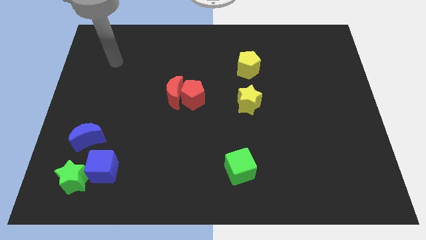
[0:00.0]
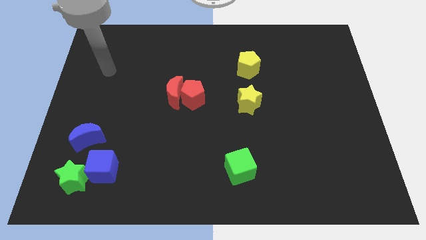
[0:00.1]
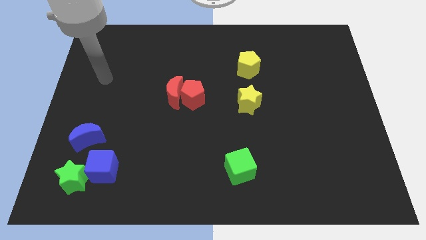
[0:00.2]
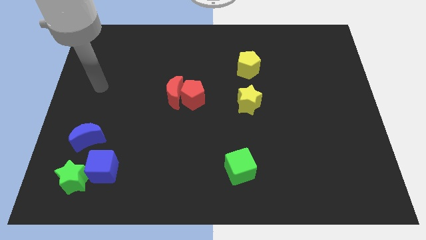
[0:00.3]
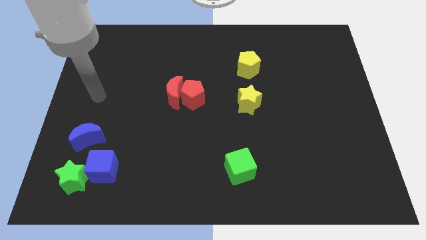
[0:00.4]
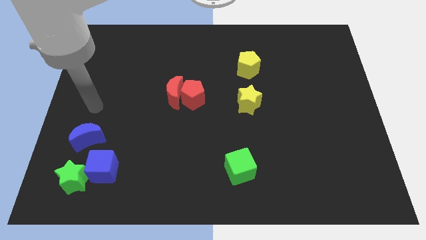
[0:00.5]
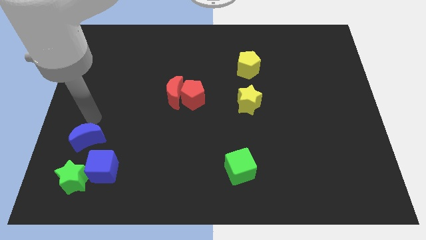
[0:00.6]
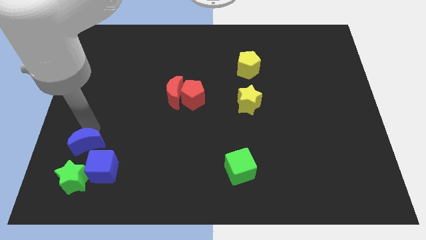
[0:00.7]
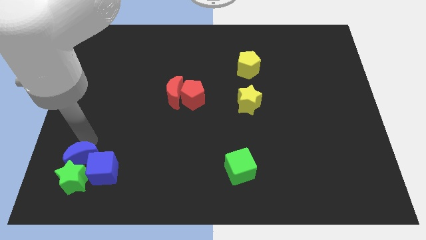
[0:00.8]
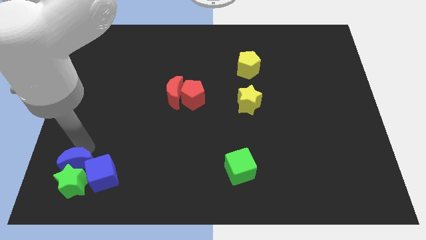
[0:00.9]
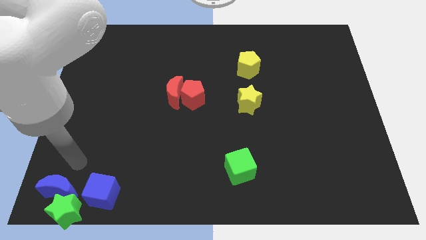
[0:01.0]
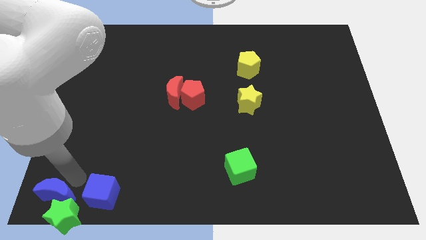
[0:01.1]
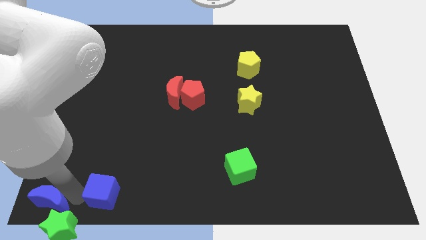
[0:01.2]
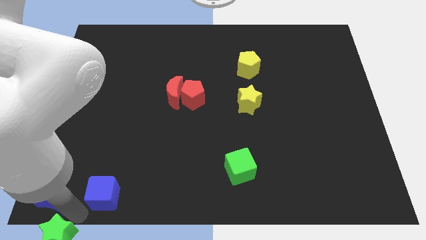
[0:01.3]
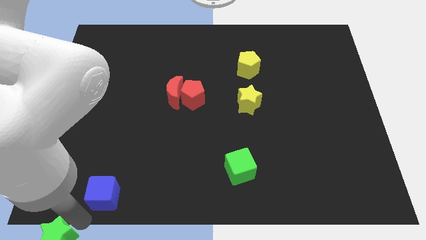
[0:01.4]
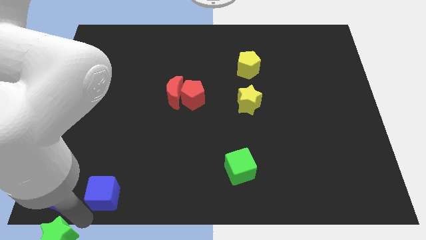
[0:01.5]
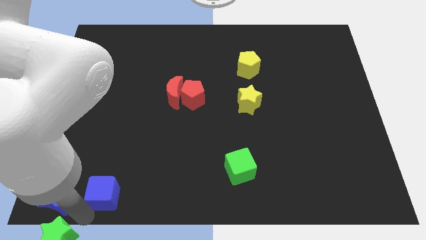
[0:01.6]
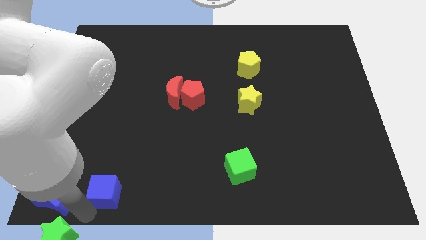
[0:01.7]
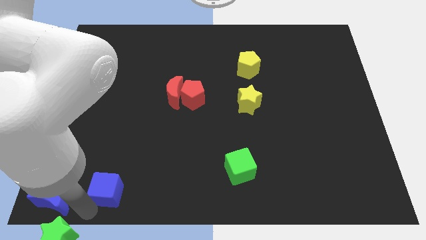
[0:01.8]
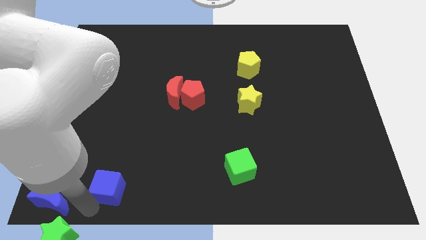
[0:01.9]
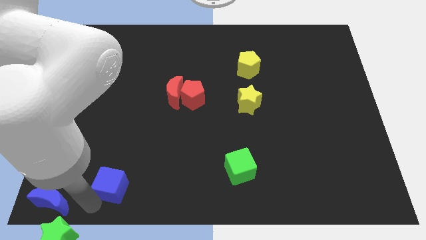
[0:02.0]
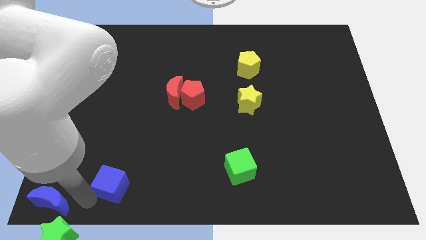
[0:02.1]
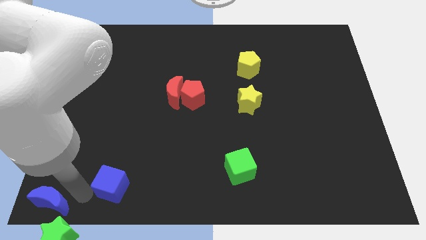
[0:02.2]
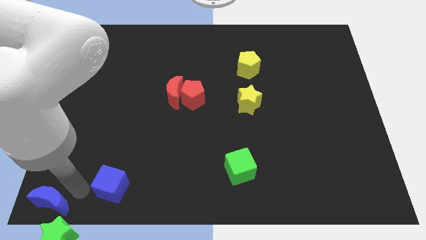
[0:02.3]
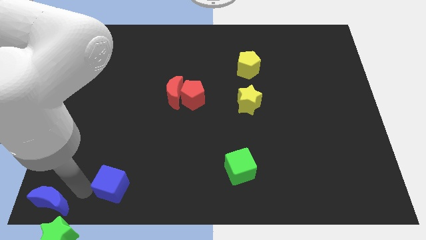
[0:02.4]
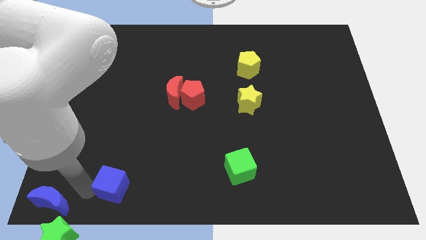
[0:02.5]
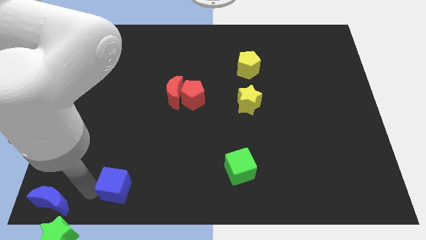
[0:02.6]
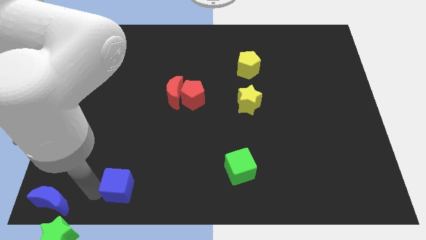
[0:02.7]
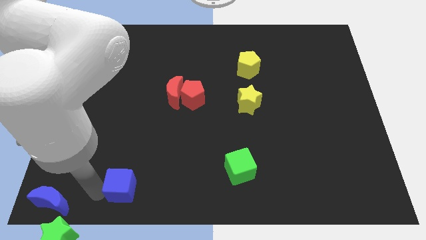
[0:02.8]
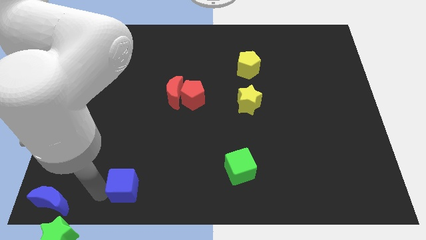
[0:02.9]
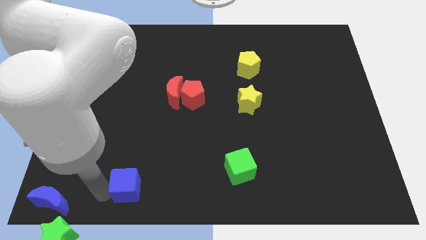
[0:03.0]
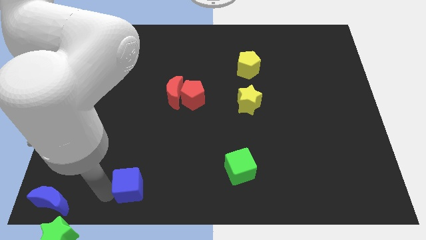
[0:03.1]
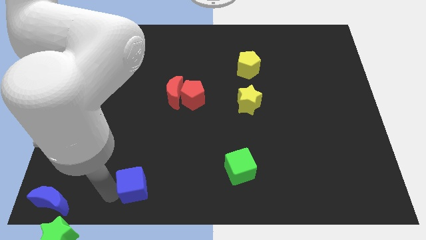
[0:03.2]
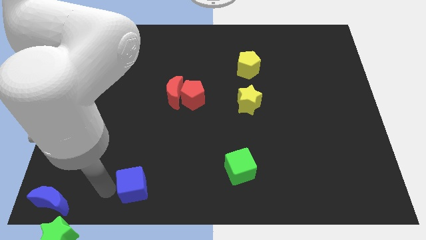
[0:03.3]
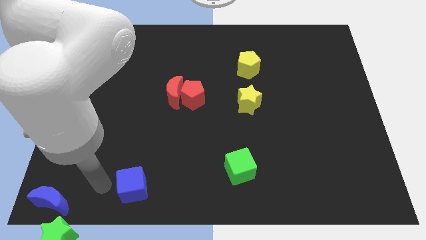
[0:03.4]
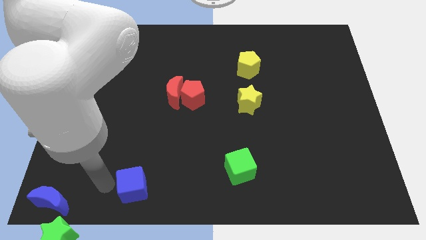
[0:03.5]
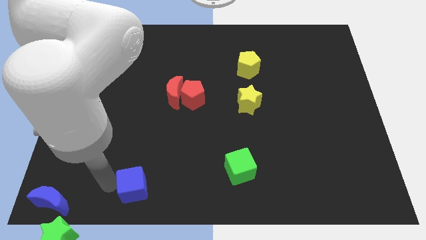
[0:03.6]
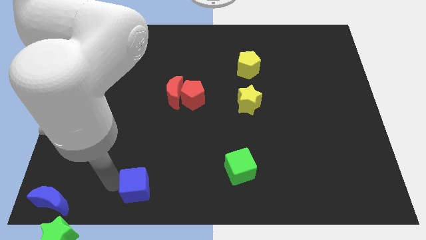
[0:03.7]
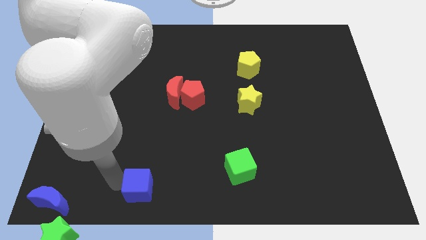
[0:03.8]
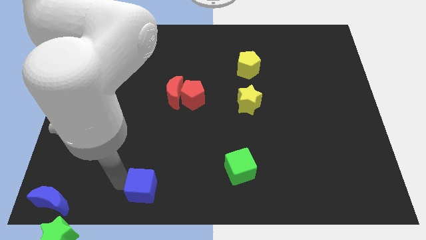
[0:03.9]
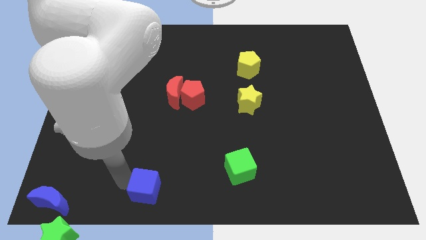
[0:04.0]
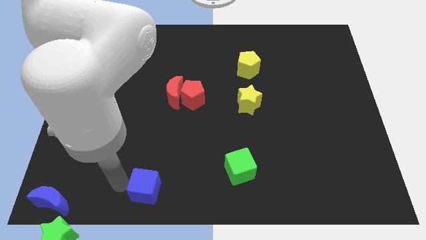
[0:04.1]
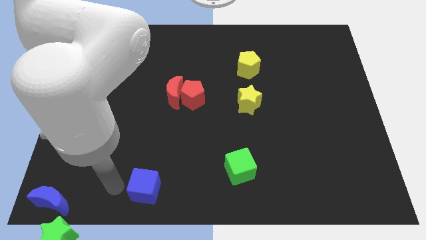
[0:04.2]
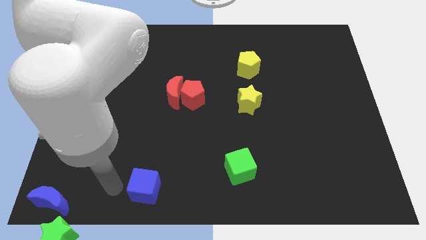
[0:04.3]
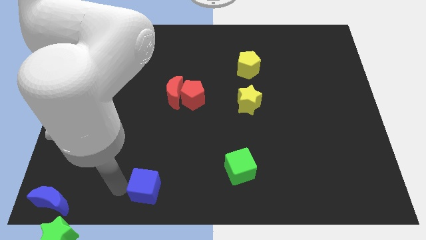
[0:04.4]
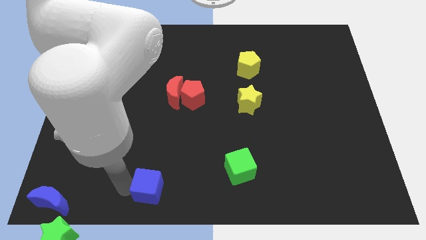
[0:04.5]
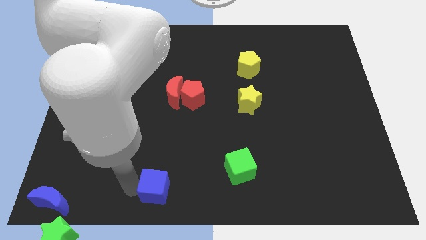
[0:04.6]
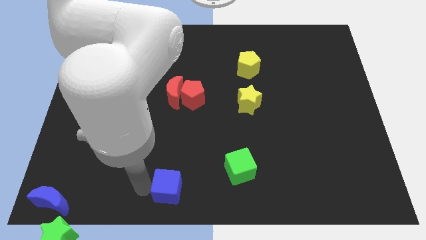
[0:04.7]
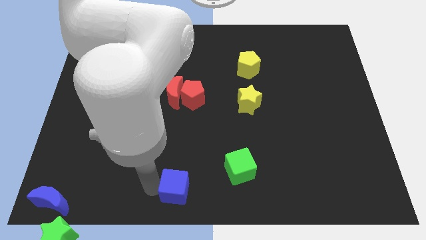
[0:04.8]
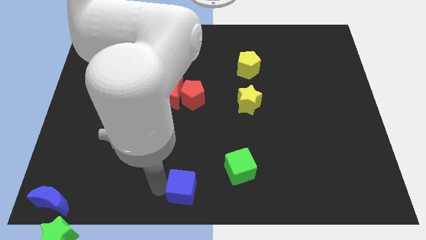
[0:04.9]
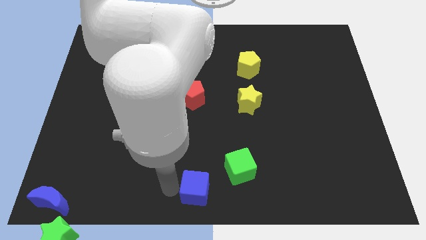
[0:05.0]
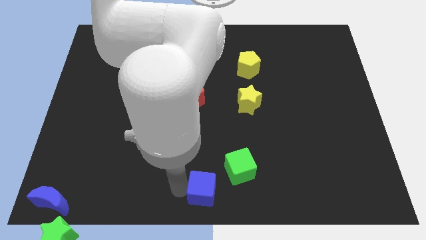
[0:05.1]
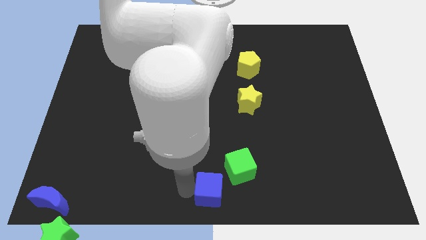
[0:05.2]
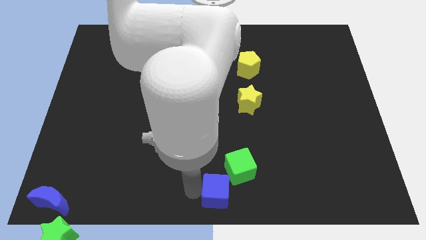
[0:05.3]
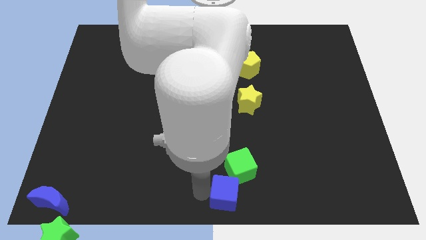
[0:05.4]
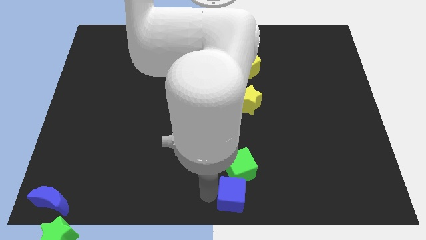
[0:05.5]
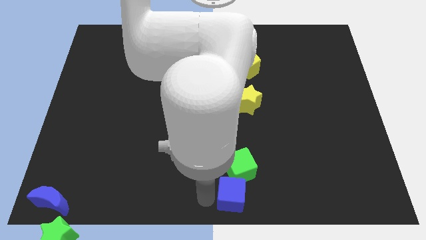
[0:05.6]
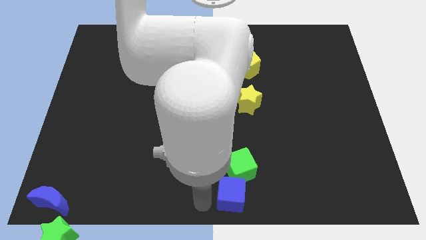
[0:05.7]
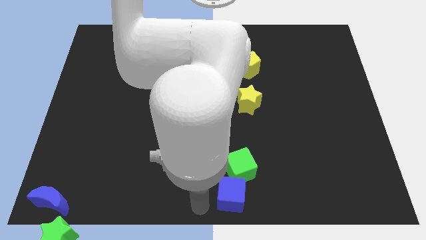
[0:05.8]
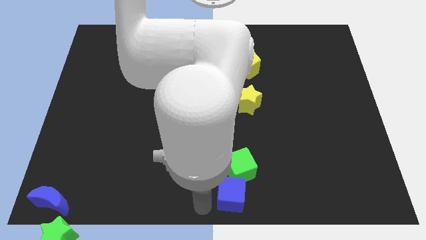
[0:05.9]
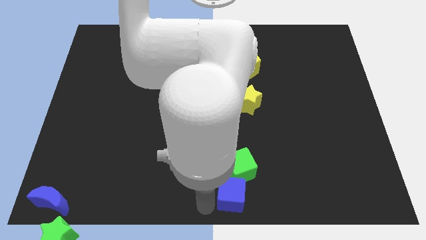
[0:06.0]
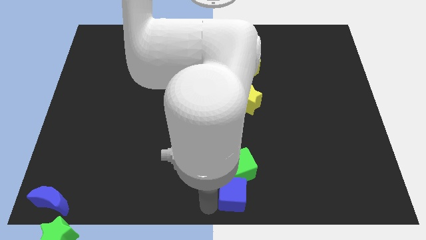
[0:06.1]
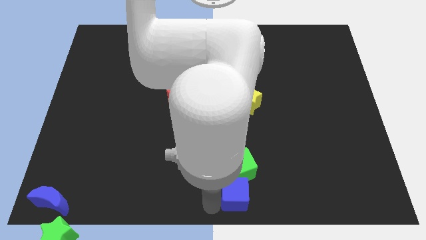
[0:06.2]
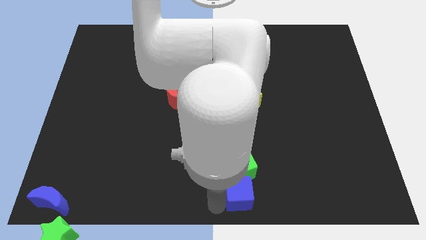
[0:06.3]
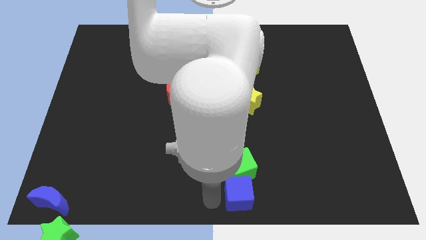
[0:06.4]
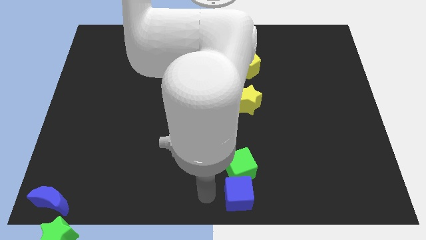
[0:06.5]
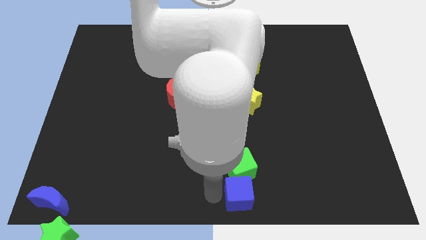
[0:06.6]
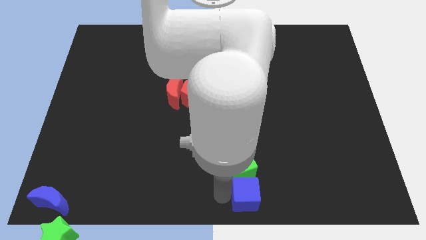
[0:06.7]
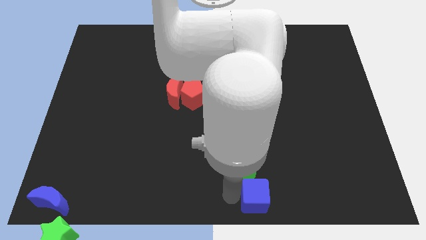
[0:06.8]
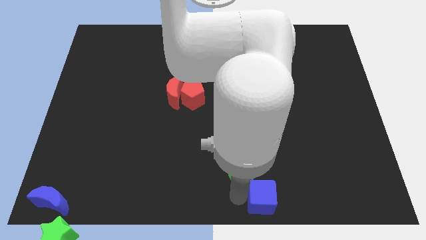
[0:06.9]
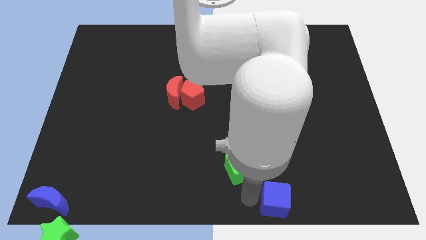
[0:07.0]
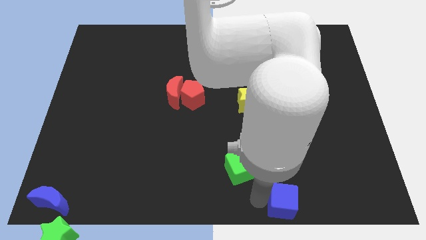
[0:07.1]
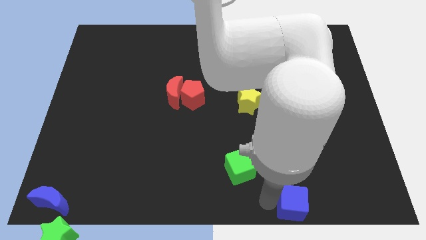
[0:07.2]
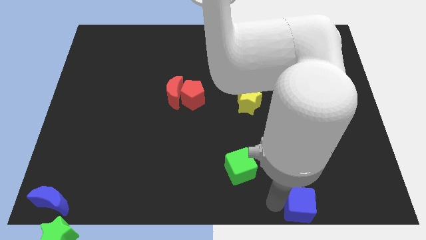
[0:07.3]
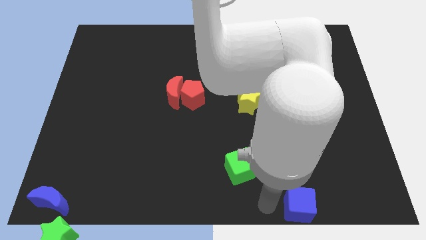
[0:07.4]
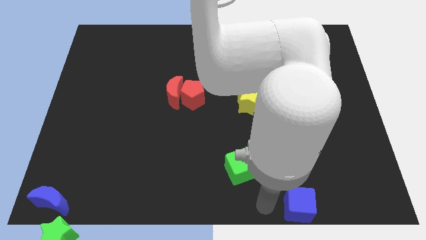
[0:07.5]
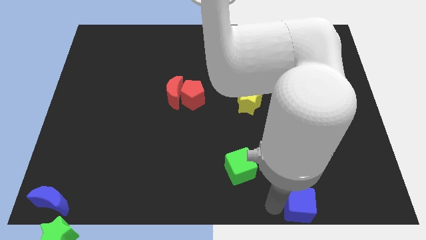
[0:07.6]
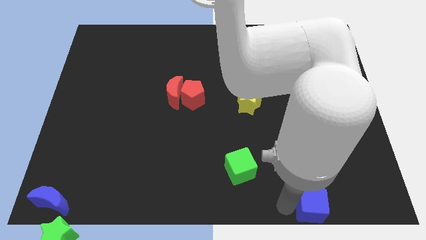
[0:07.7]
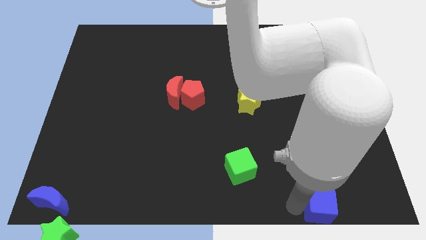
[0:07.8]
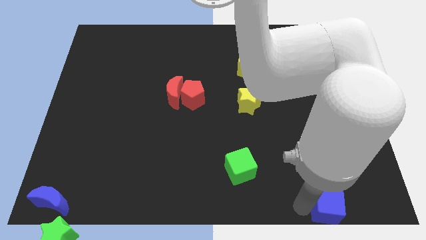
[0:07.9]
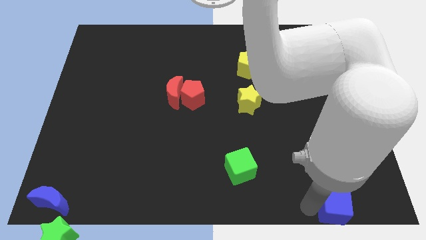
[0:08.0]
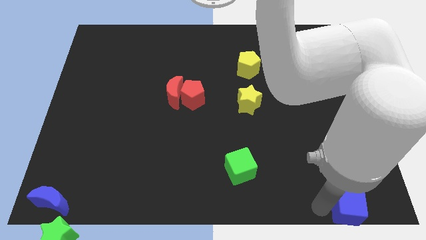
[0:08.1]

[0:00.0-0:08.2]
slide the blue cube to the bottom right of the board
